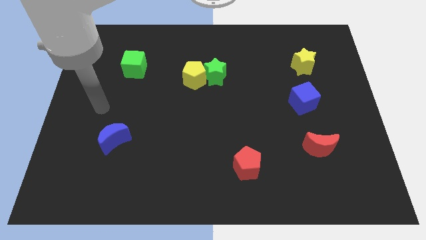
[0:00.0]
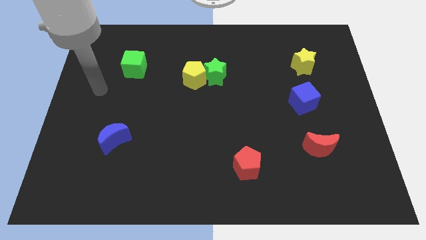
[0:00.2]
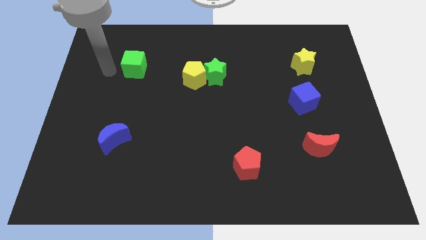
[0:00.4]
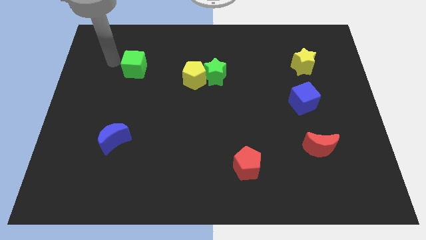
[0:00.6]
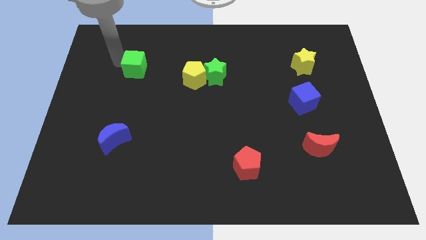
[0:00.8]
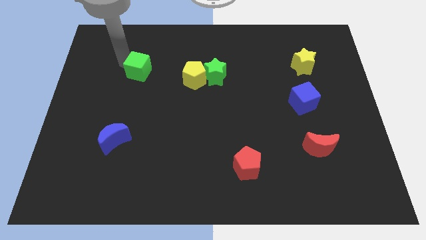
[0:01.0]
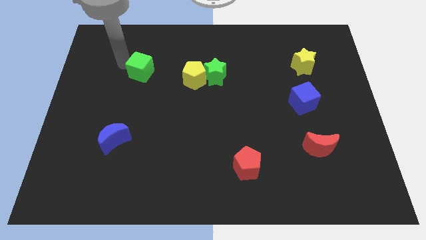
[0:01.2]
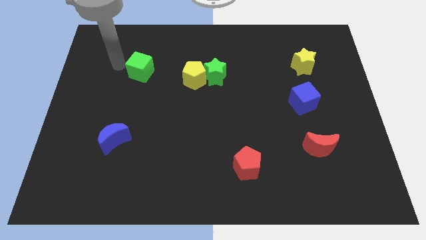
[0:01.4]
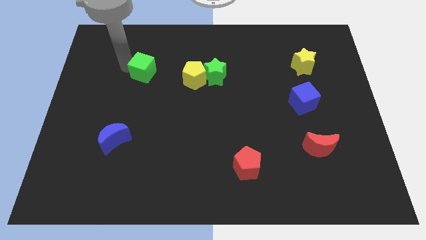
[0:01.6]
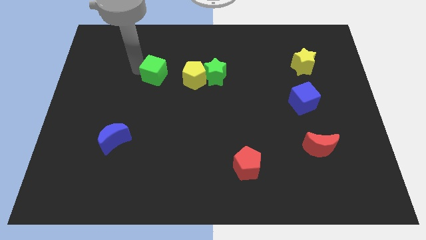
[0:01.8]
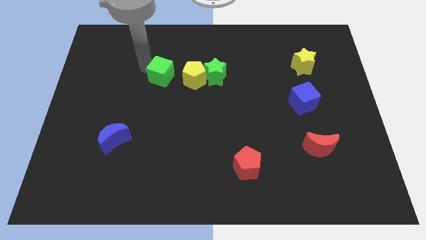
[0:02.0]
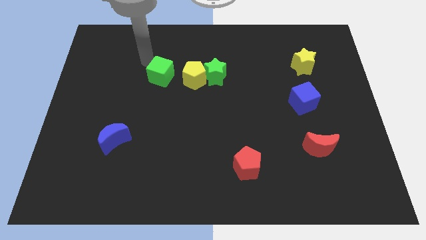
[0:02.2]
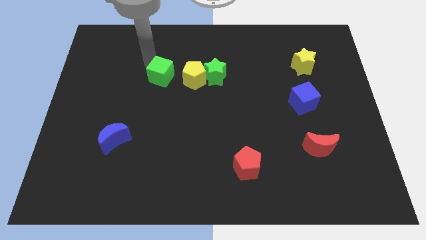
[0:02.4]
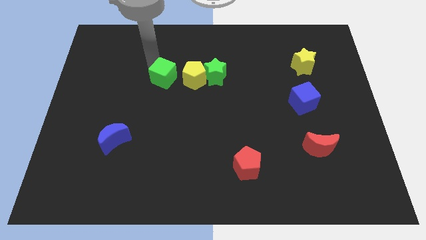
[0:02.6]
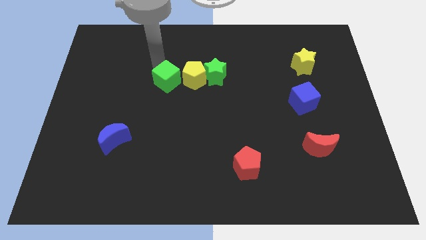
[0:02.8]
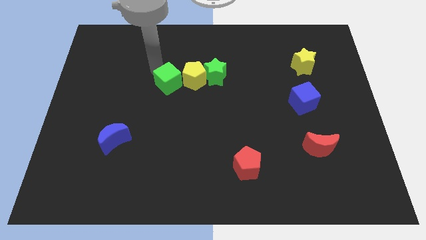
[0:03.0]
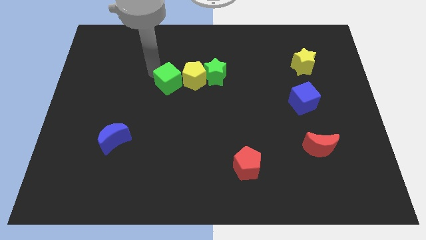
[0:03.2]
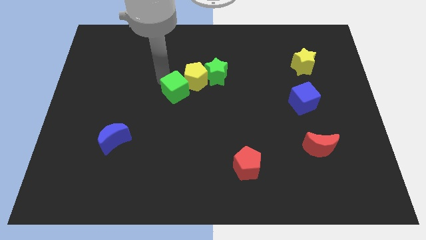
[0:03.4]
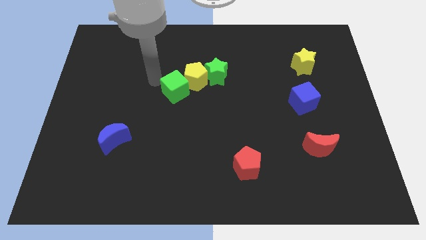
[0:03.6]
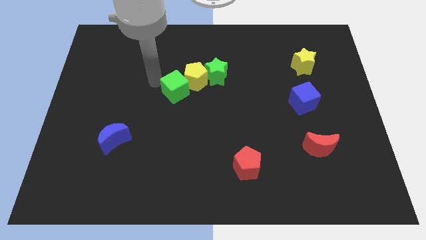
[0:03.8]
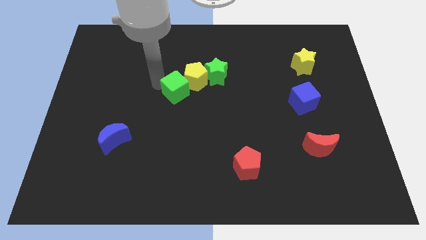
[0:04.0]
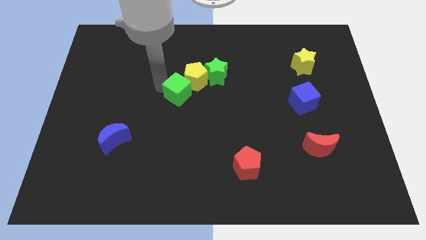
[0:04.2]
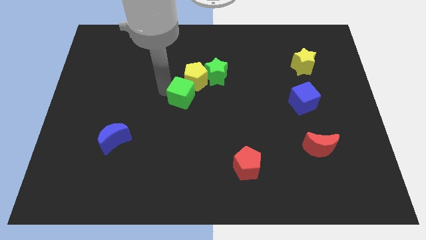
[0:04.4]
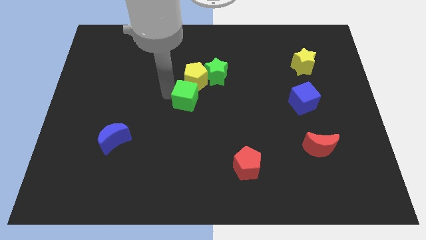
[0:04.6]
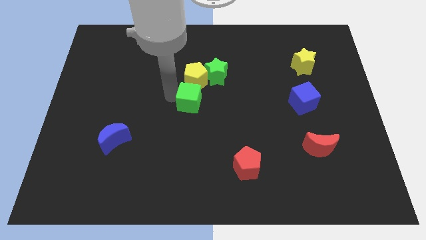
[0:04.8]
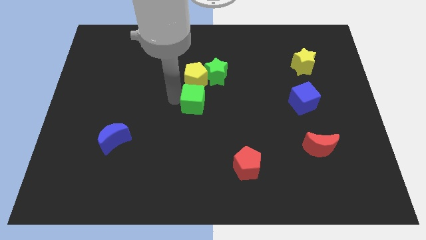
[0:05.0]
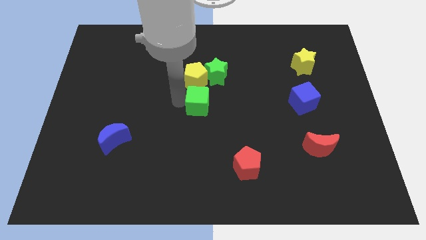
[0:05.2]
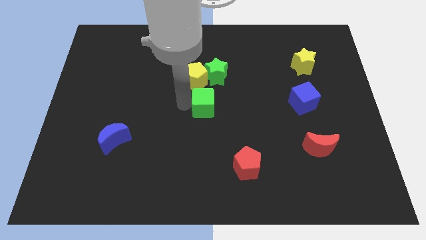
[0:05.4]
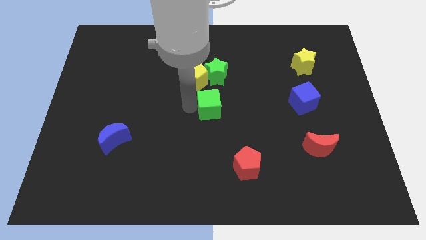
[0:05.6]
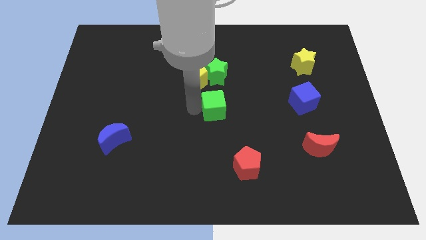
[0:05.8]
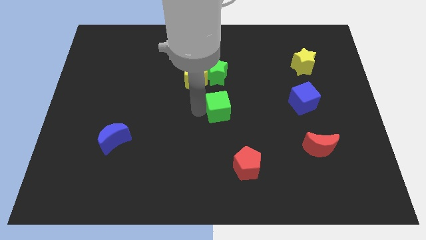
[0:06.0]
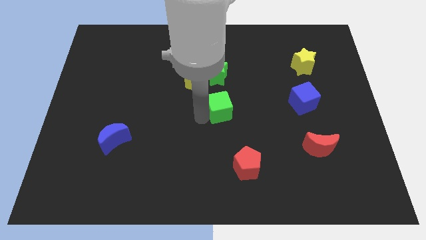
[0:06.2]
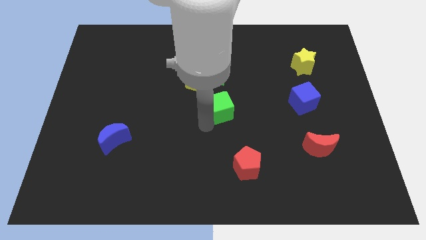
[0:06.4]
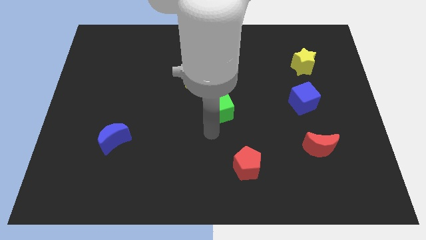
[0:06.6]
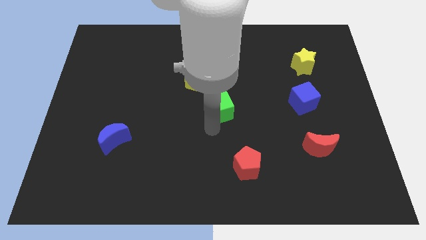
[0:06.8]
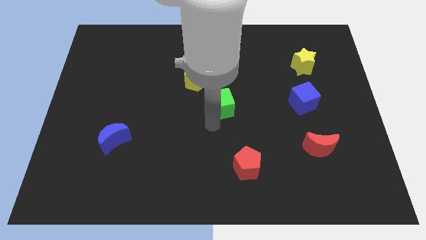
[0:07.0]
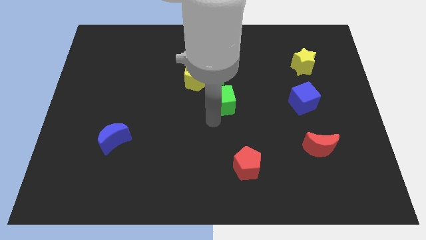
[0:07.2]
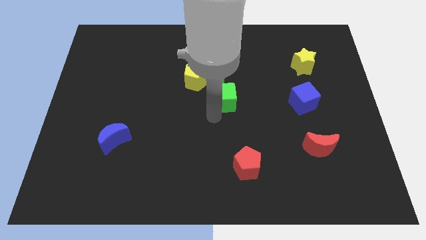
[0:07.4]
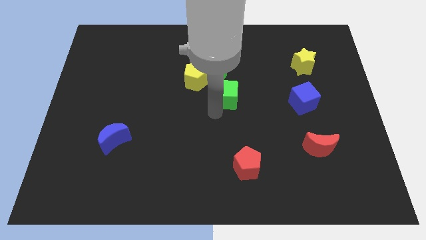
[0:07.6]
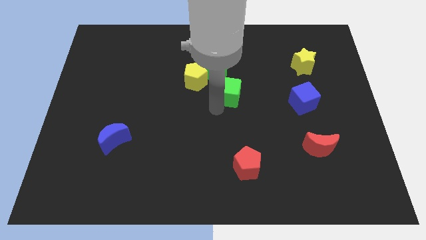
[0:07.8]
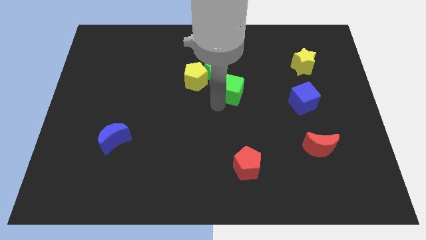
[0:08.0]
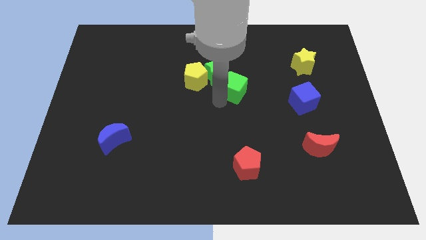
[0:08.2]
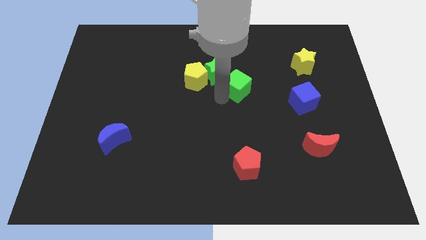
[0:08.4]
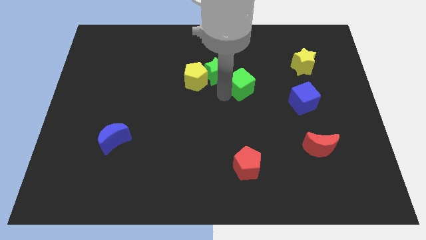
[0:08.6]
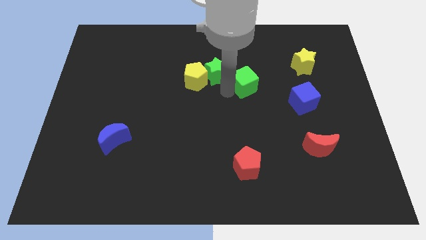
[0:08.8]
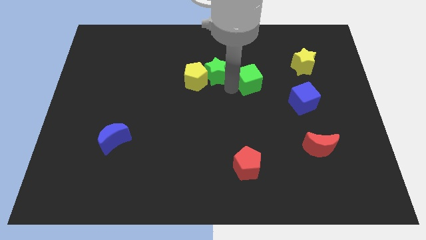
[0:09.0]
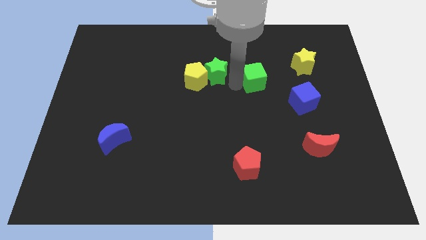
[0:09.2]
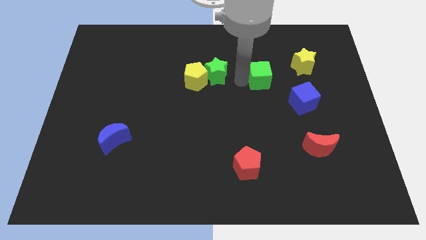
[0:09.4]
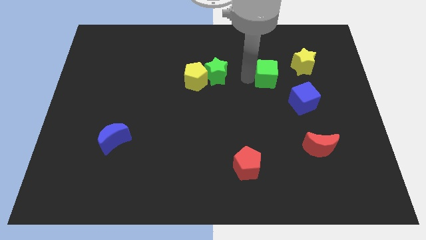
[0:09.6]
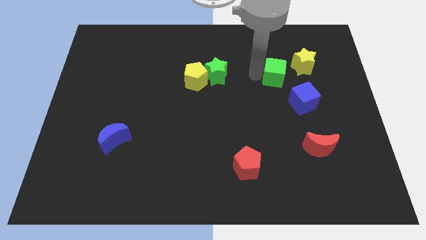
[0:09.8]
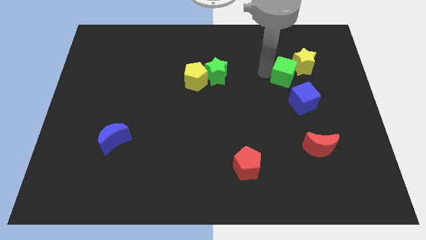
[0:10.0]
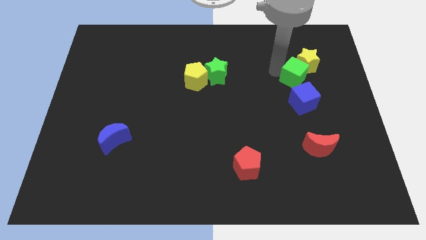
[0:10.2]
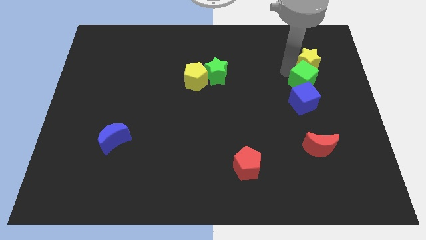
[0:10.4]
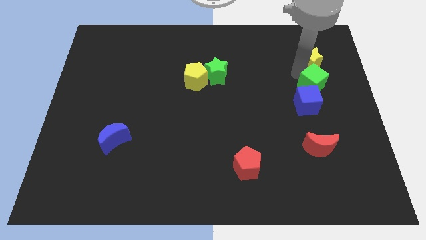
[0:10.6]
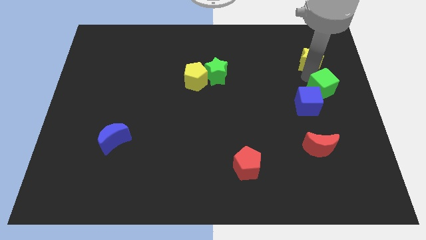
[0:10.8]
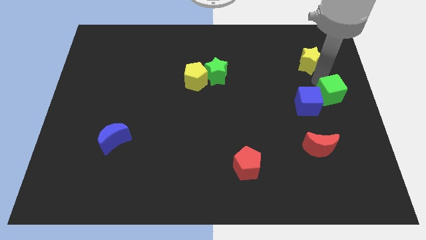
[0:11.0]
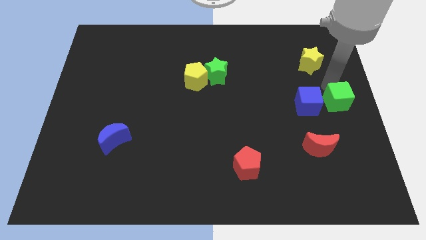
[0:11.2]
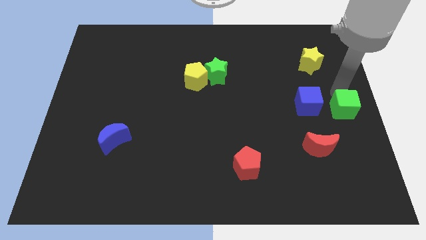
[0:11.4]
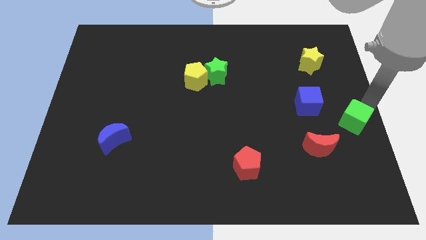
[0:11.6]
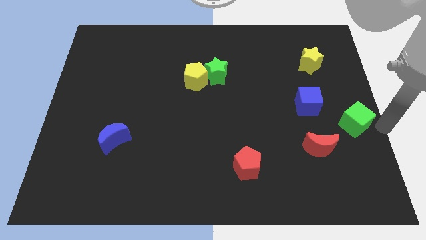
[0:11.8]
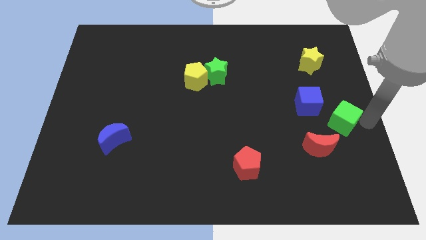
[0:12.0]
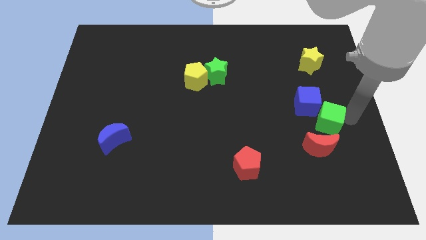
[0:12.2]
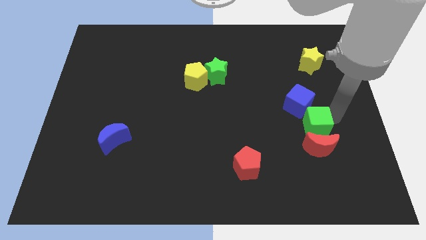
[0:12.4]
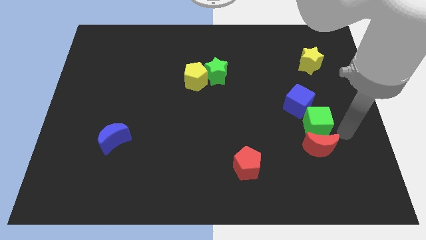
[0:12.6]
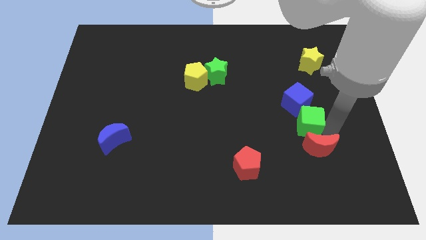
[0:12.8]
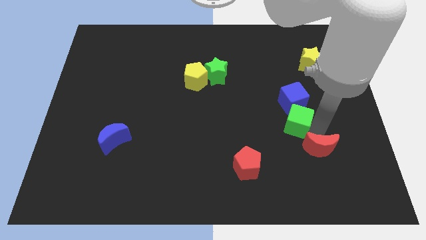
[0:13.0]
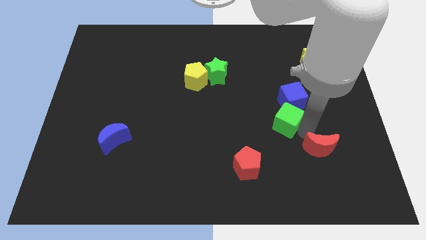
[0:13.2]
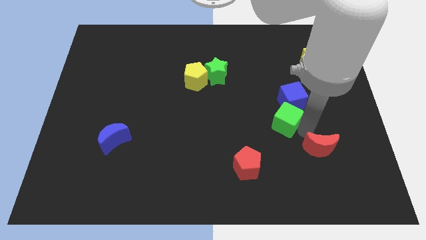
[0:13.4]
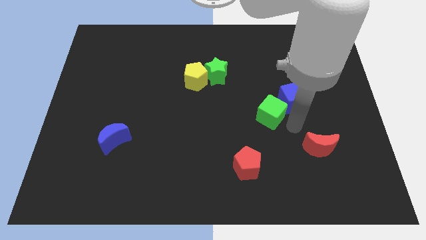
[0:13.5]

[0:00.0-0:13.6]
move the green cube left of the blue cube
